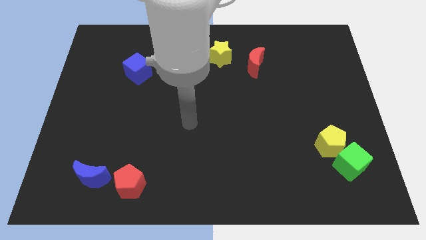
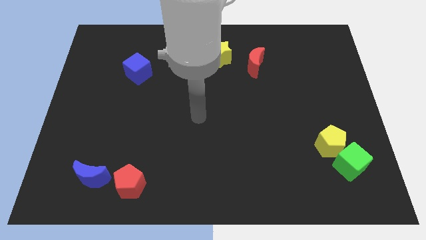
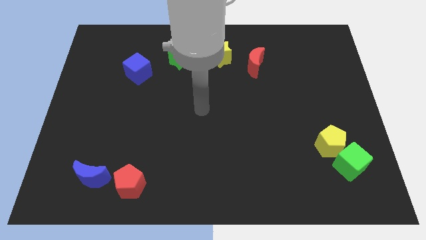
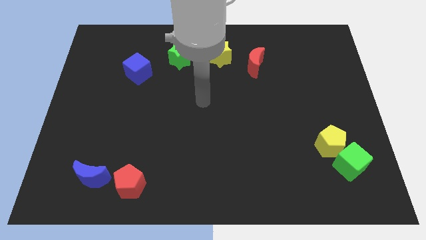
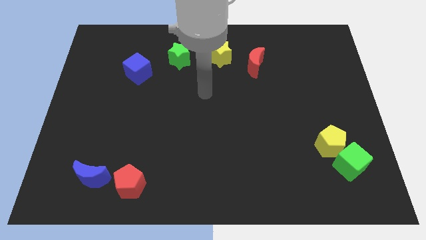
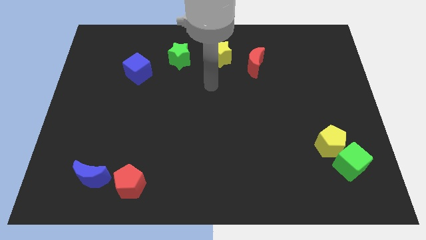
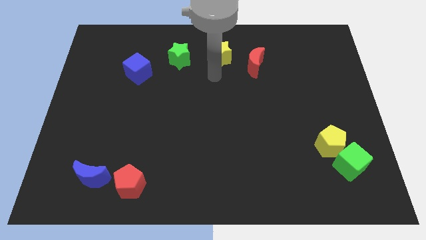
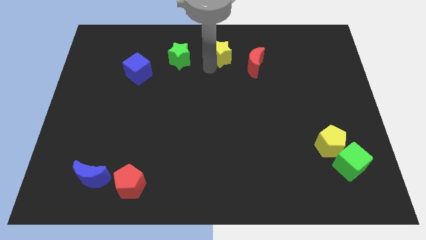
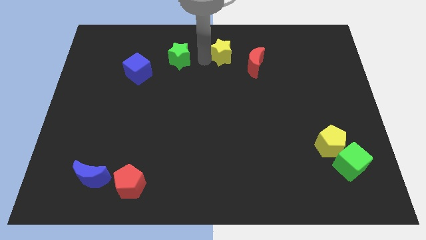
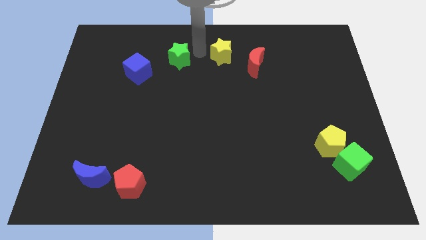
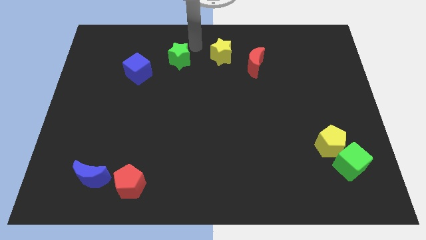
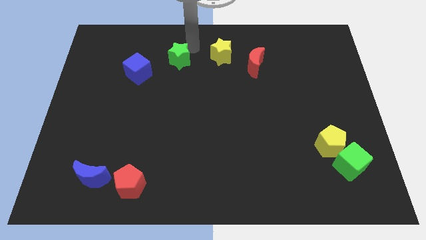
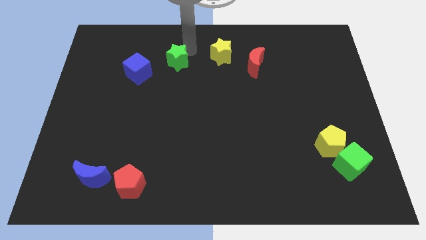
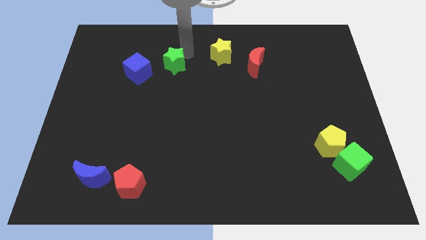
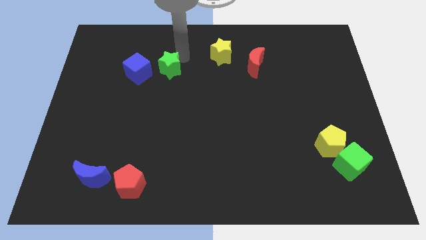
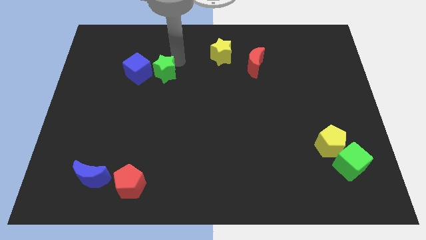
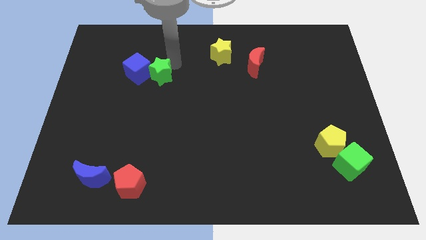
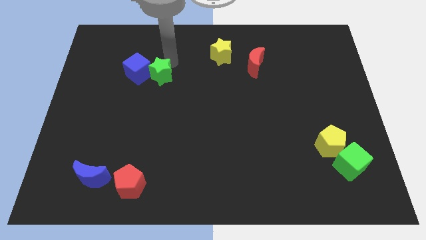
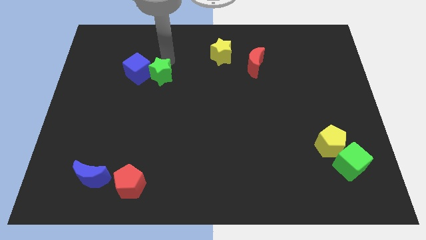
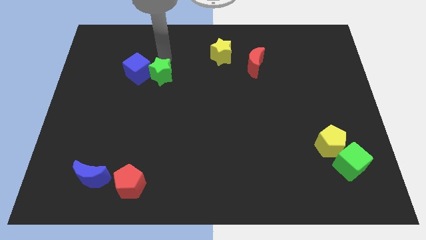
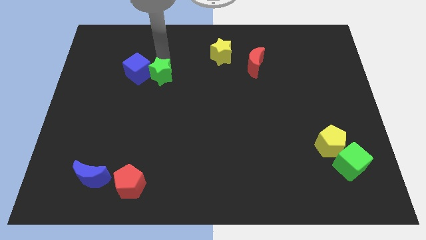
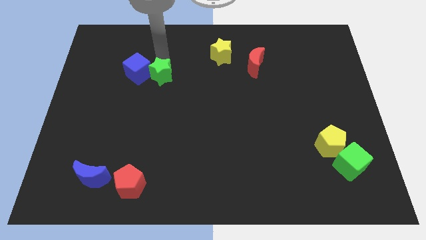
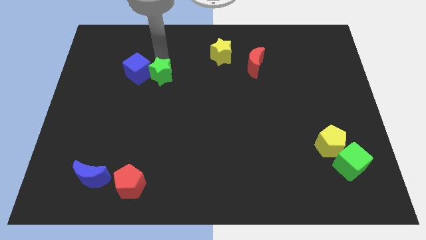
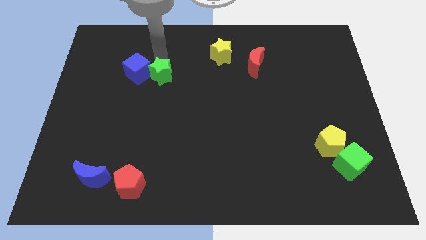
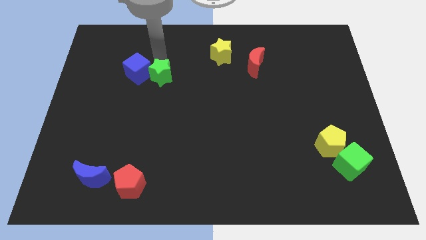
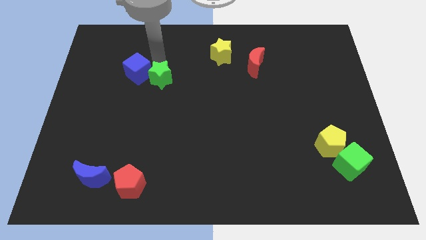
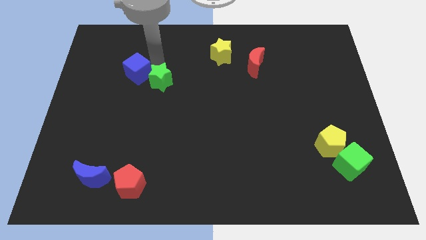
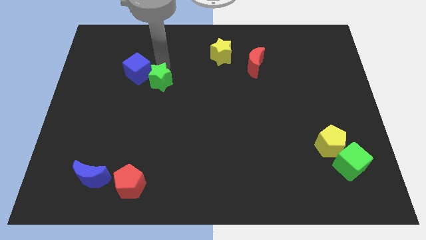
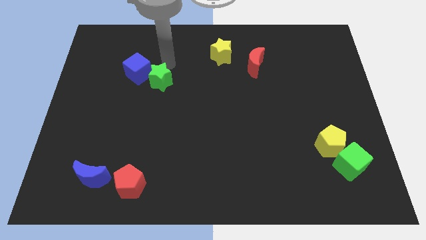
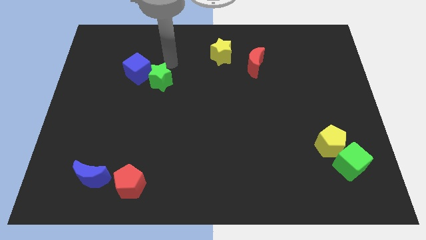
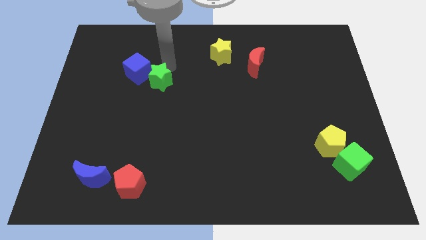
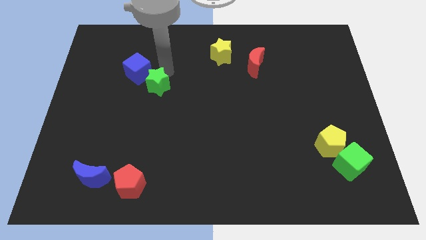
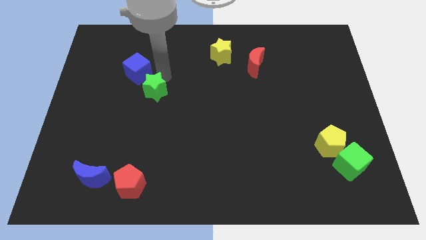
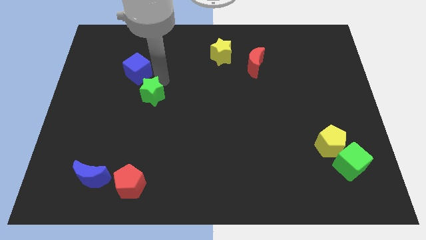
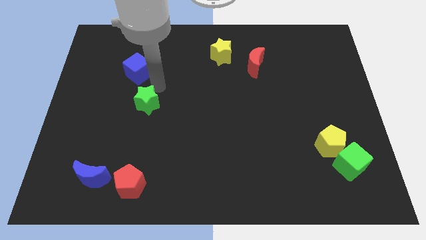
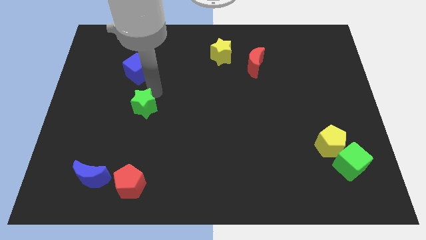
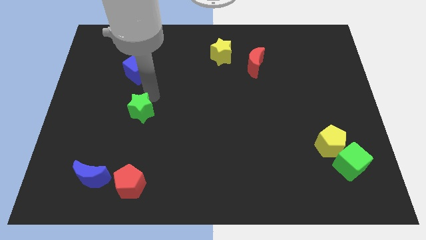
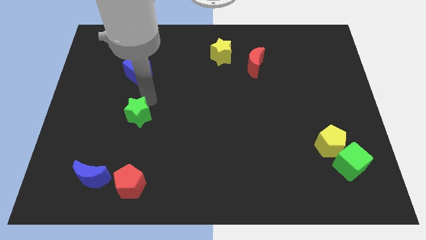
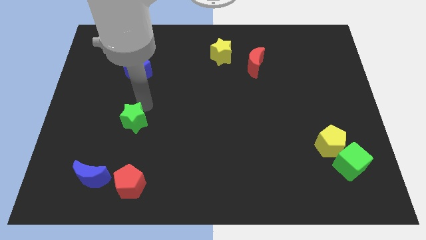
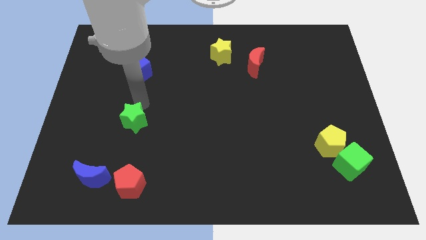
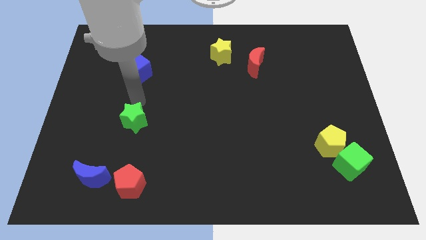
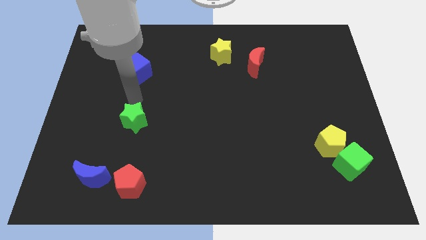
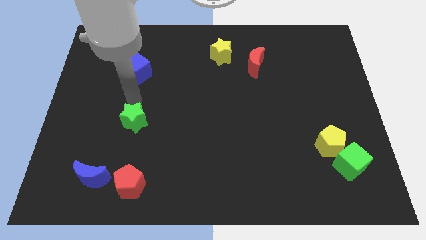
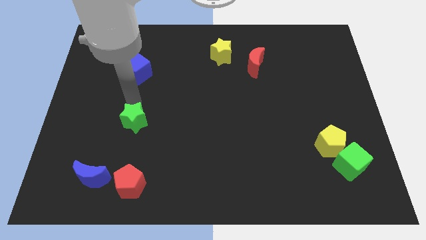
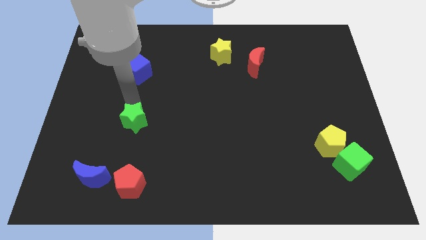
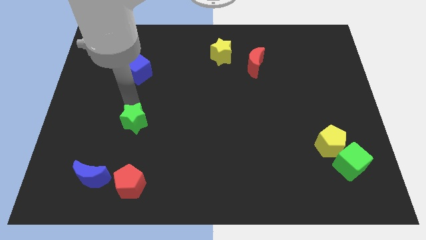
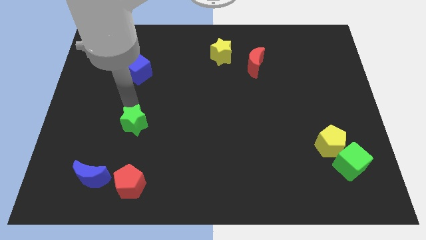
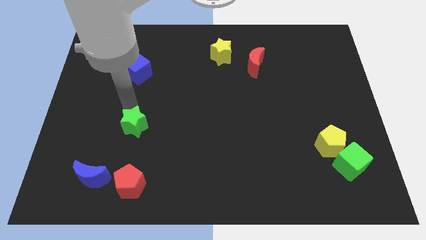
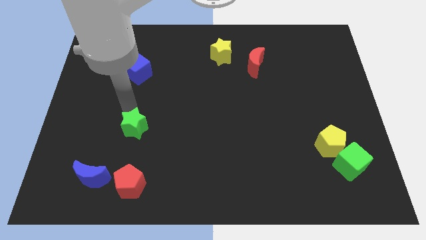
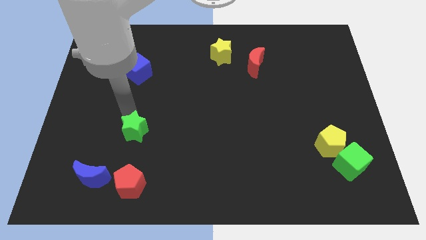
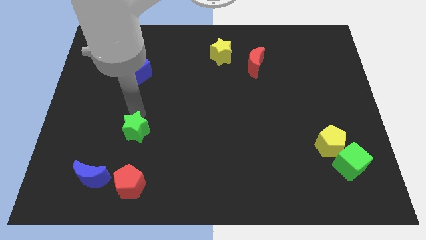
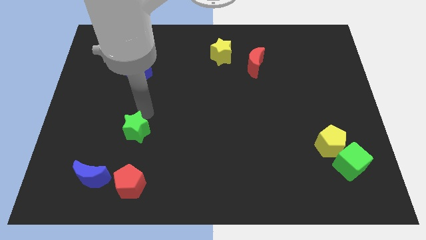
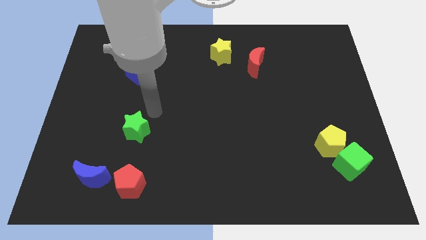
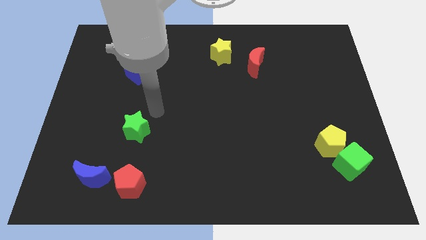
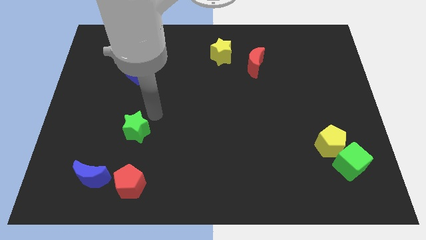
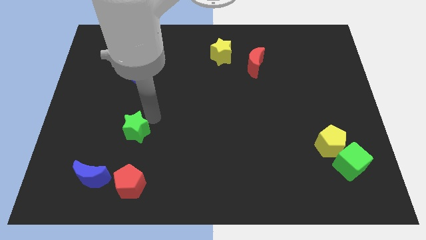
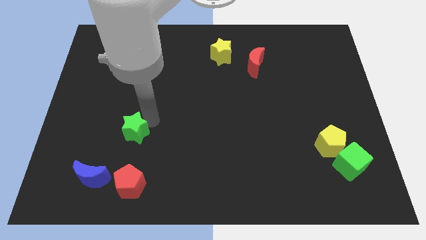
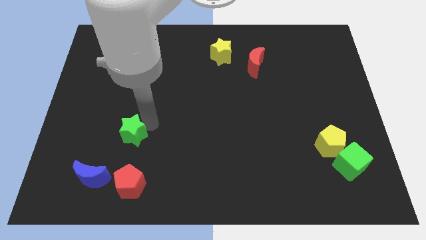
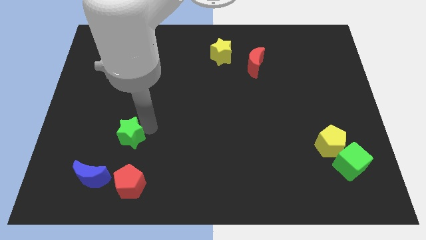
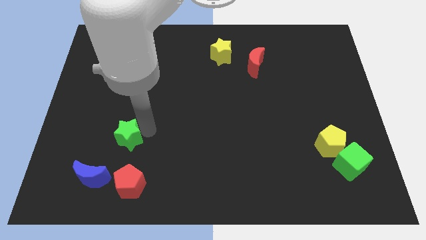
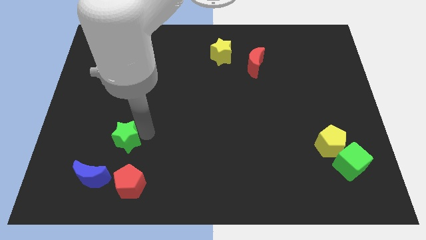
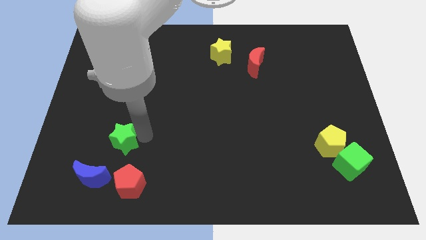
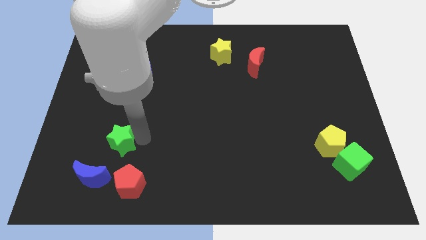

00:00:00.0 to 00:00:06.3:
push the green star diagonally up and to the left of the red pentagon

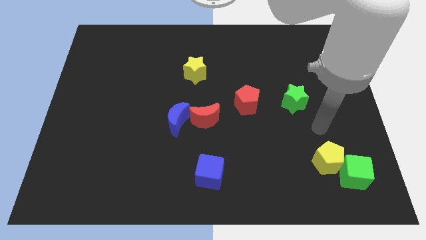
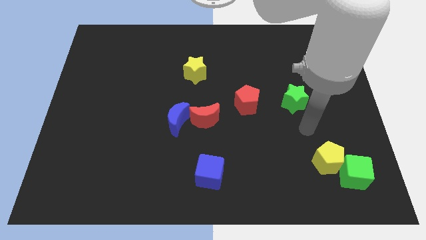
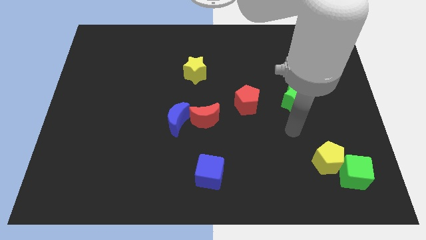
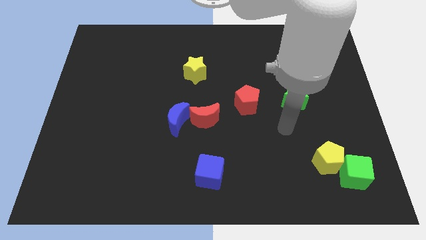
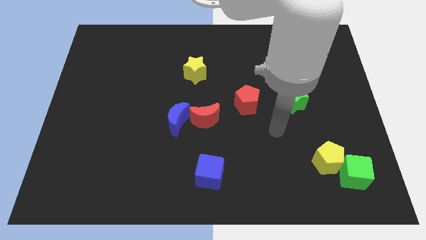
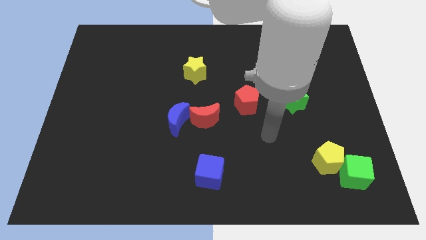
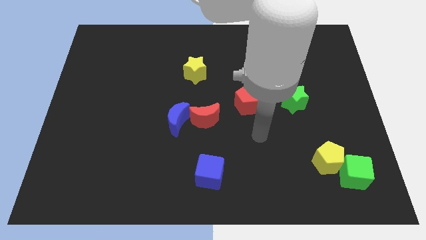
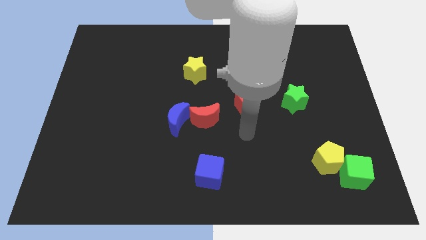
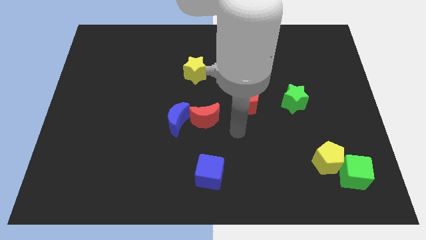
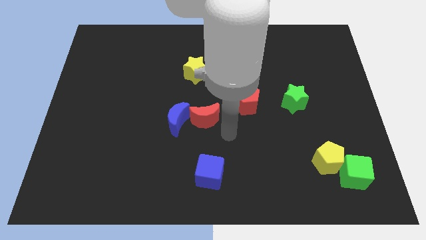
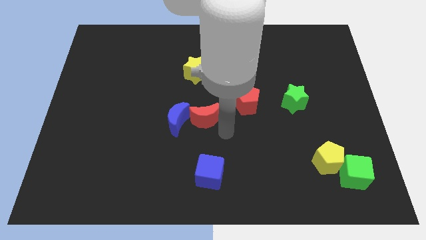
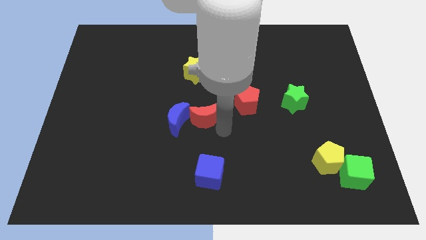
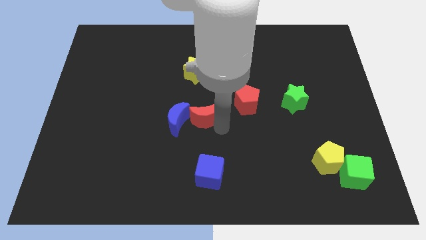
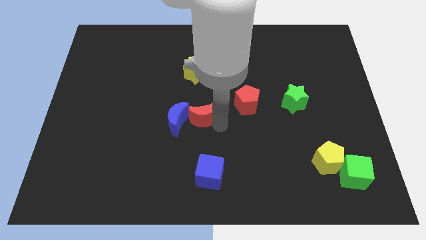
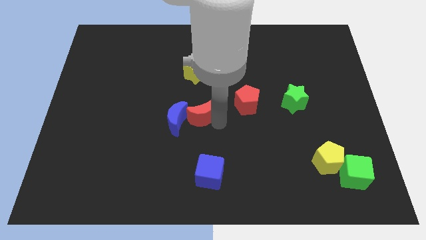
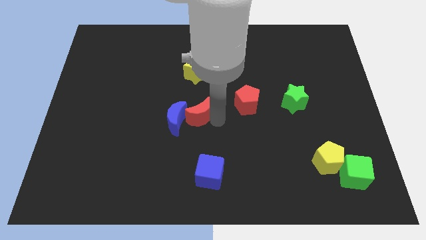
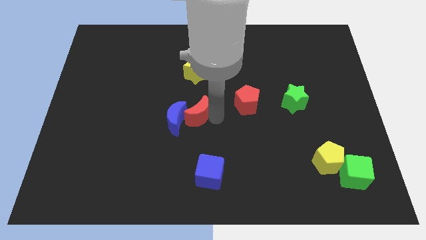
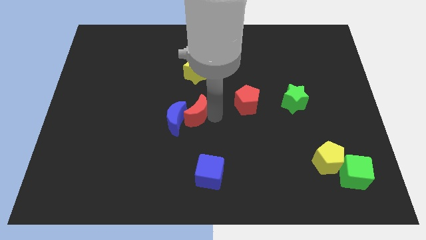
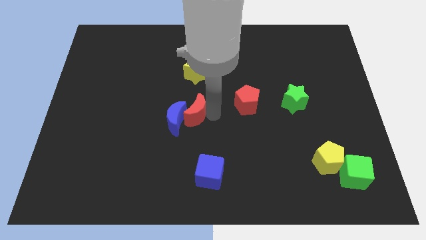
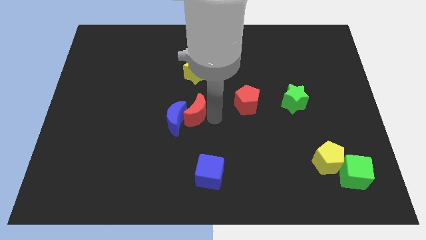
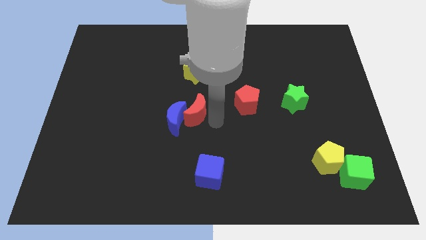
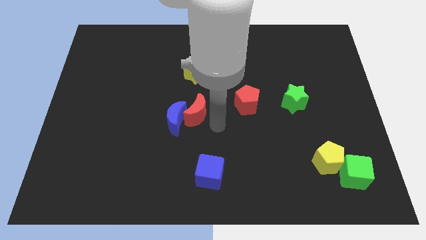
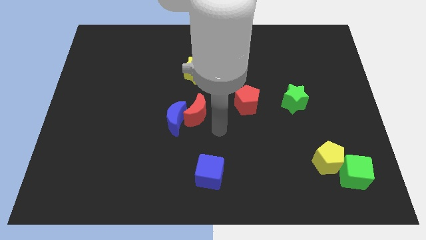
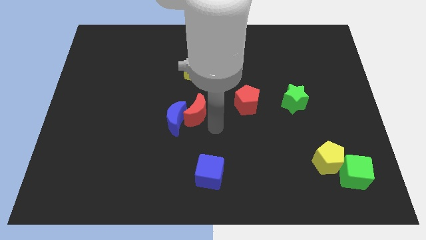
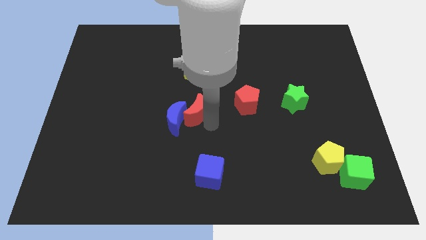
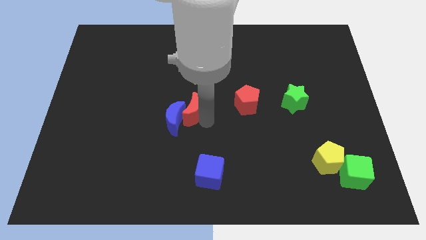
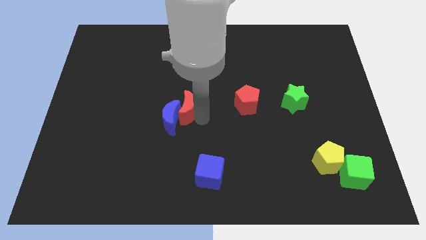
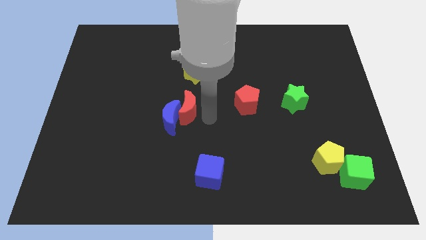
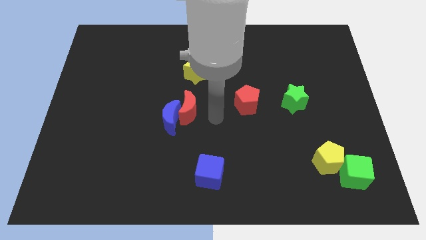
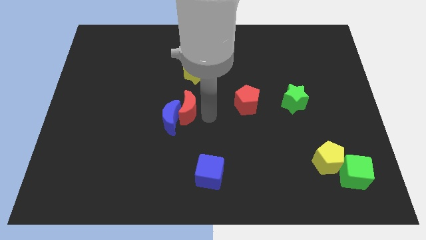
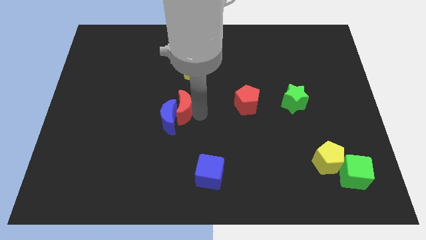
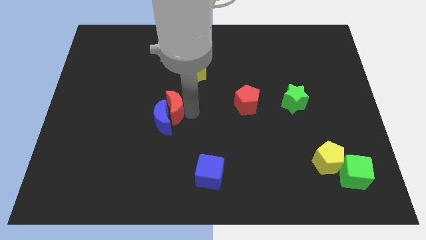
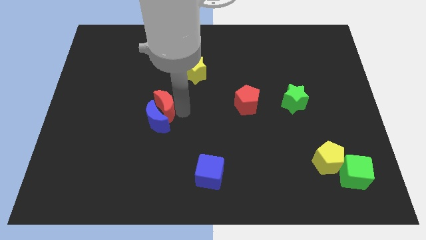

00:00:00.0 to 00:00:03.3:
move the red moon to the top left of the blue moon
